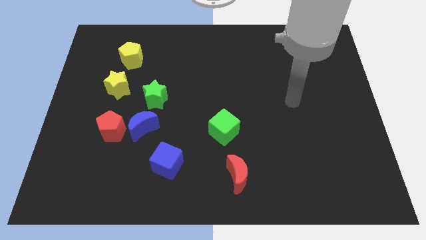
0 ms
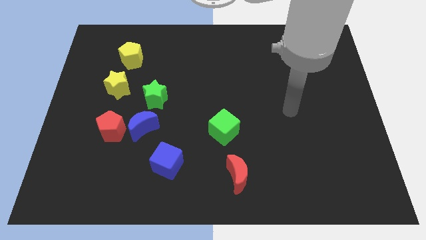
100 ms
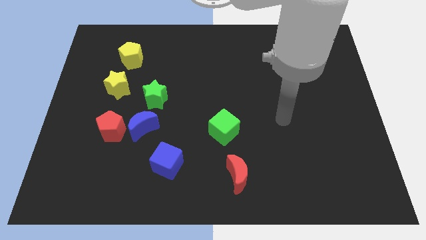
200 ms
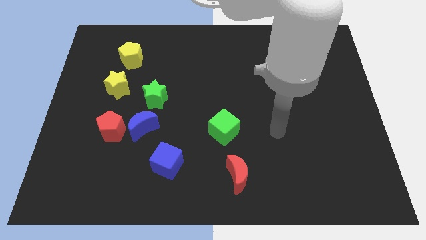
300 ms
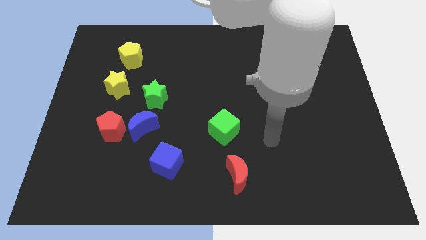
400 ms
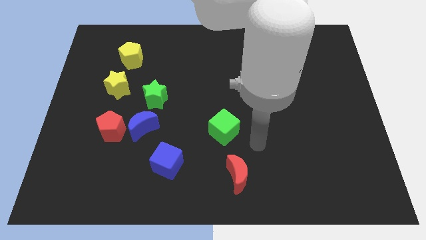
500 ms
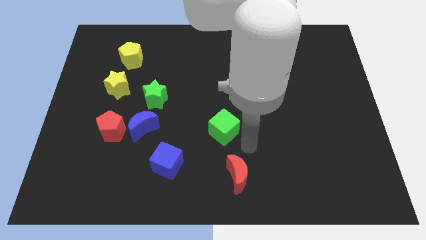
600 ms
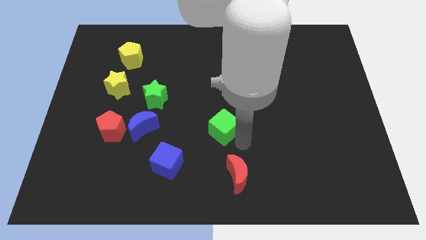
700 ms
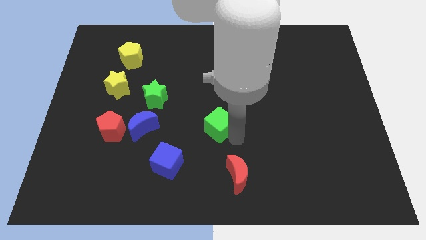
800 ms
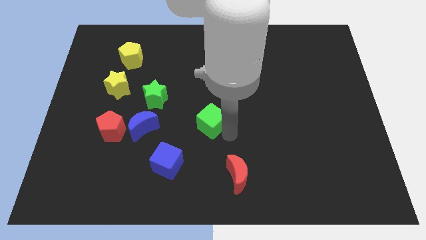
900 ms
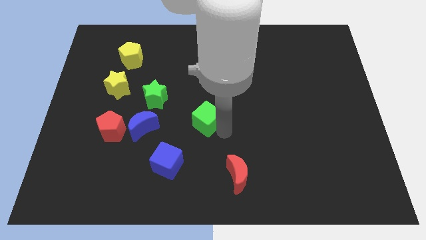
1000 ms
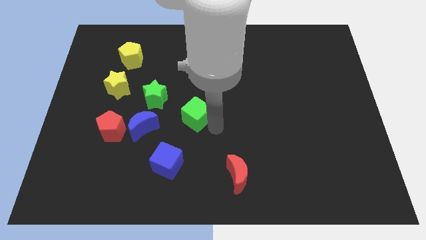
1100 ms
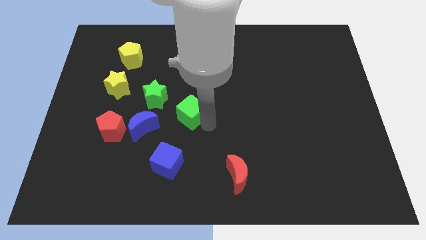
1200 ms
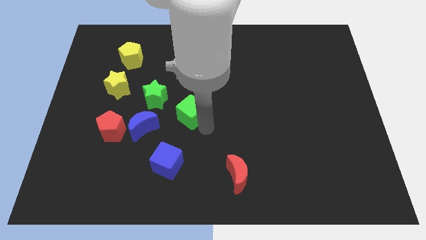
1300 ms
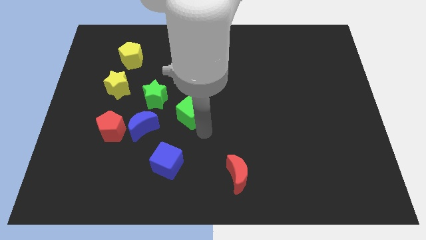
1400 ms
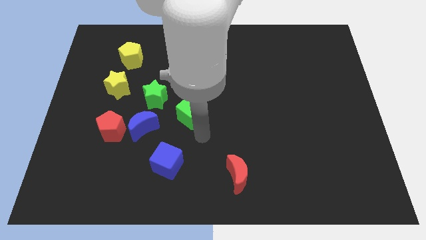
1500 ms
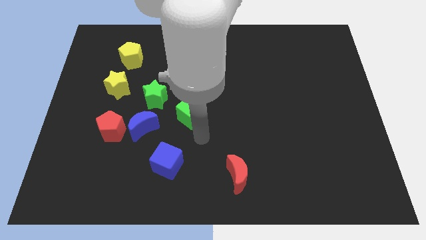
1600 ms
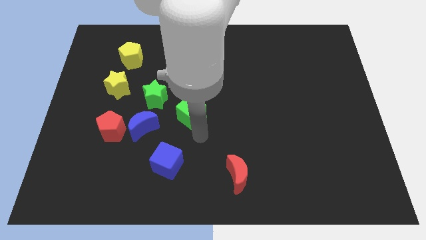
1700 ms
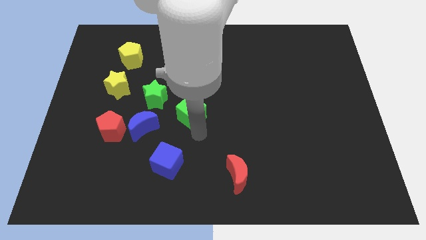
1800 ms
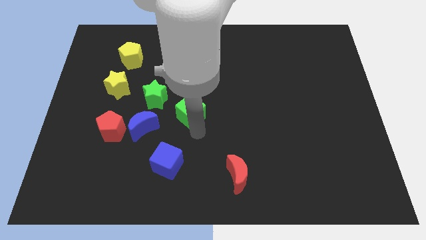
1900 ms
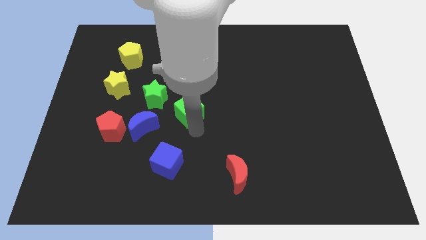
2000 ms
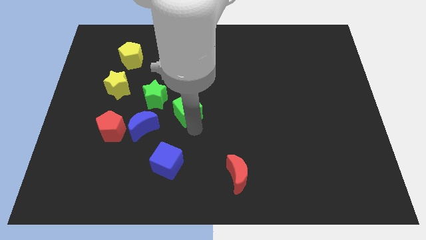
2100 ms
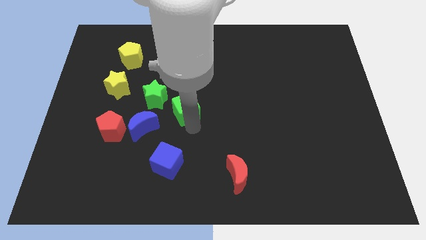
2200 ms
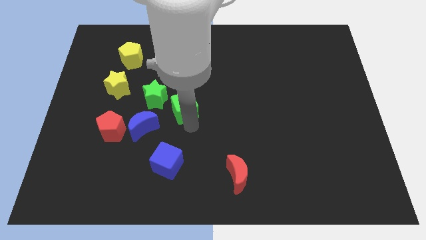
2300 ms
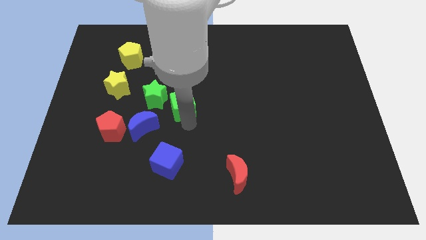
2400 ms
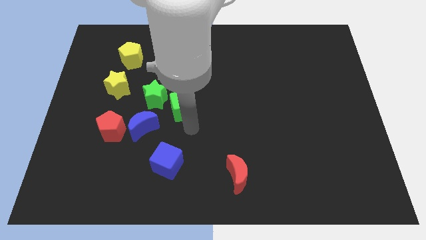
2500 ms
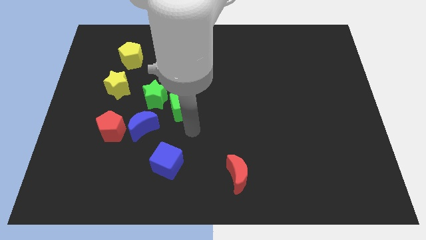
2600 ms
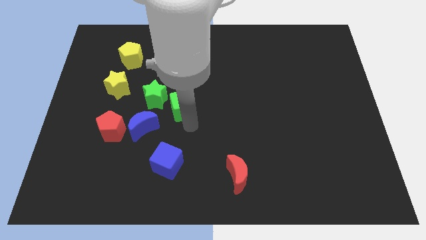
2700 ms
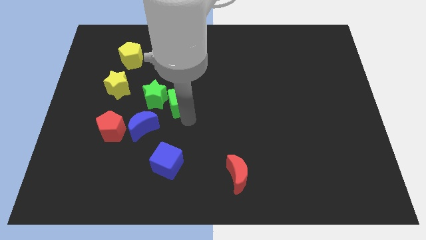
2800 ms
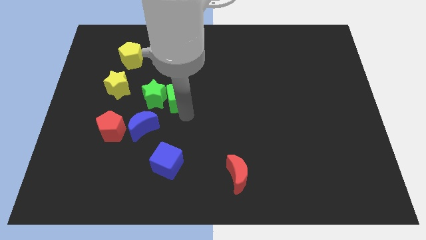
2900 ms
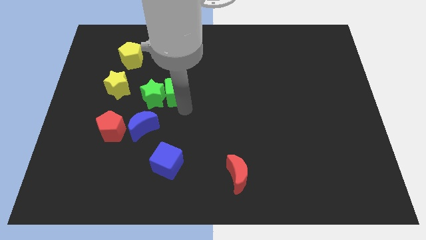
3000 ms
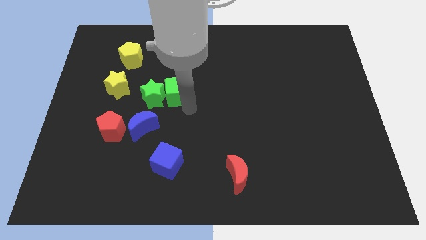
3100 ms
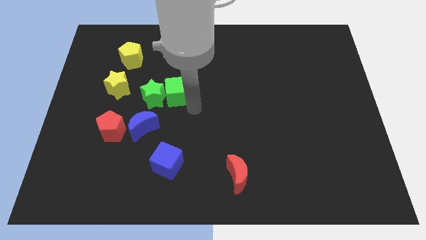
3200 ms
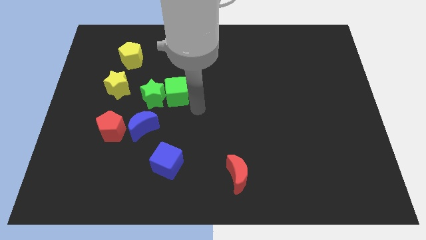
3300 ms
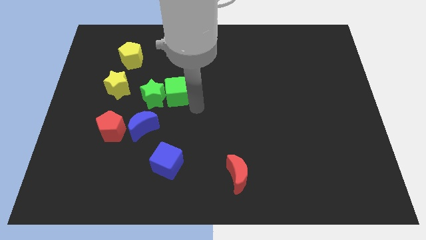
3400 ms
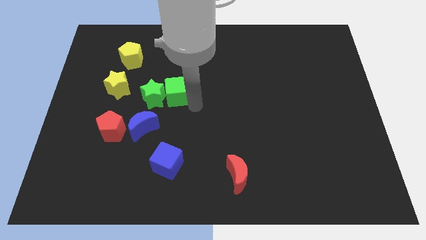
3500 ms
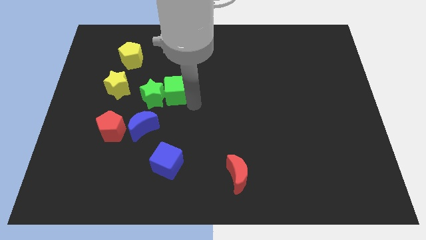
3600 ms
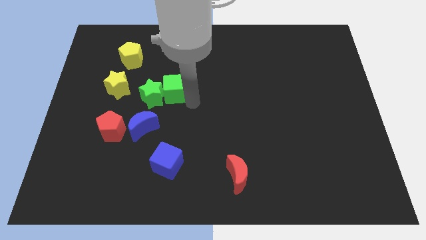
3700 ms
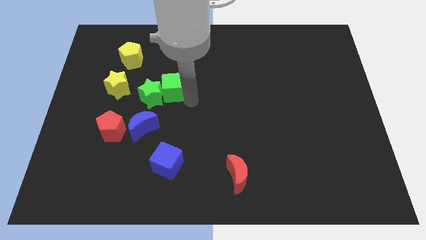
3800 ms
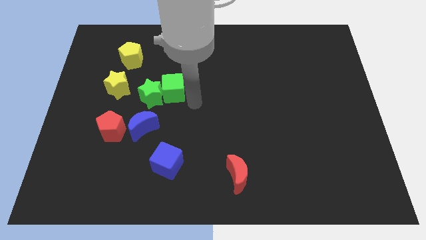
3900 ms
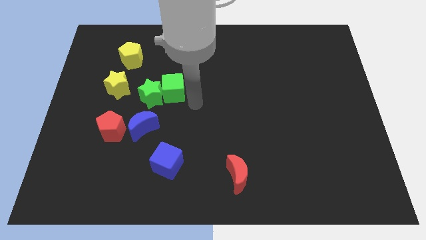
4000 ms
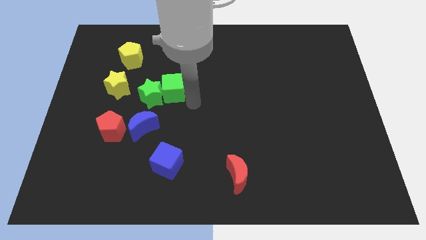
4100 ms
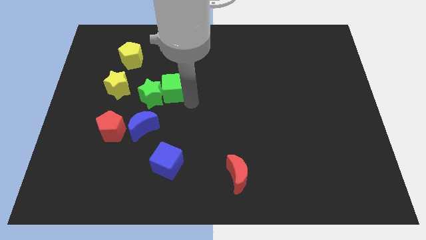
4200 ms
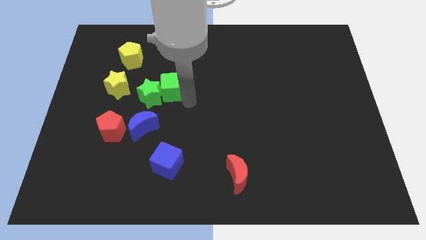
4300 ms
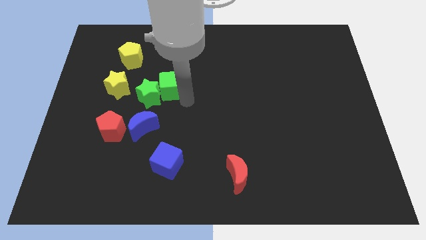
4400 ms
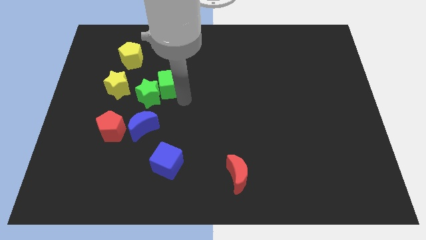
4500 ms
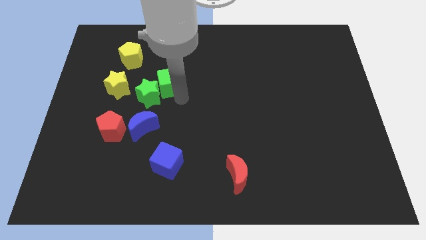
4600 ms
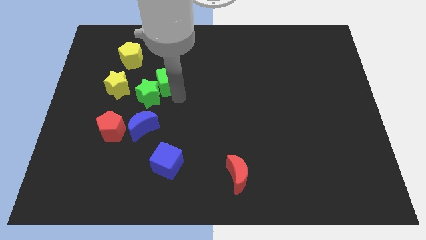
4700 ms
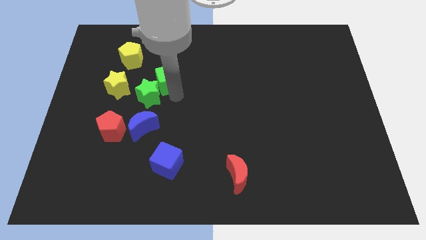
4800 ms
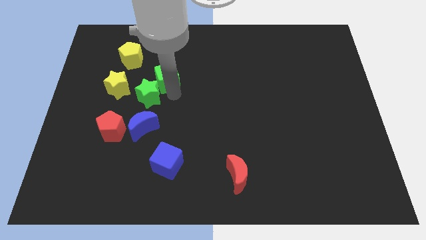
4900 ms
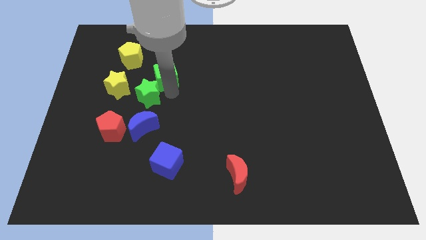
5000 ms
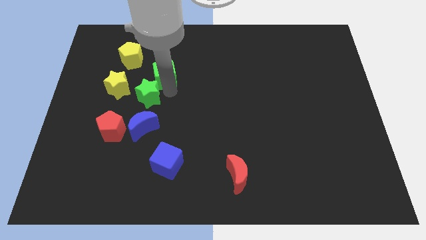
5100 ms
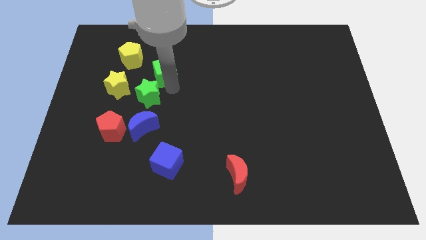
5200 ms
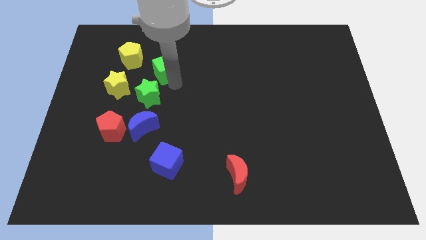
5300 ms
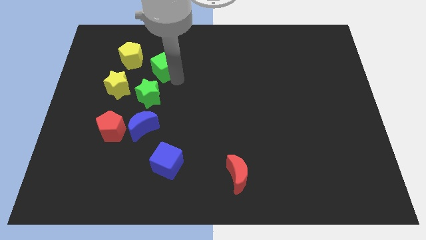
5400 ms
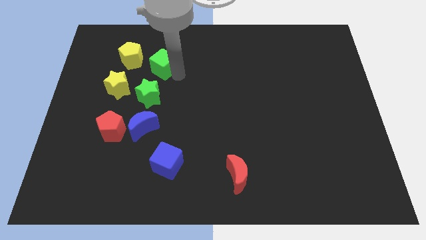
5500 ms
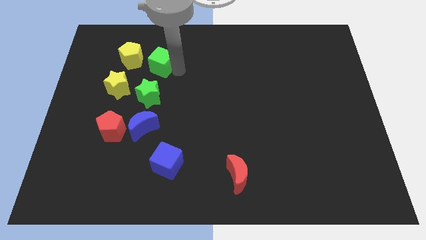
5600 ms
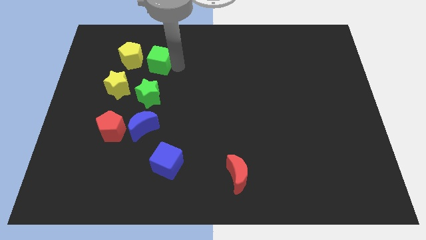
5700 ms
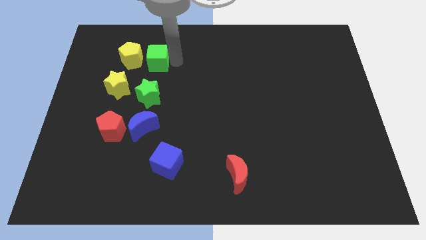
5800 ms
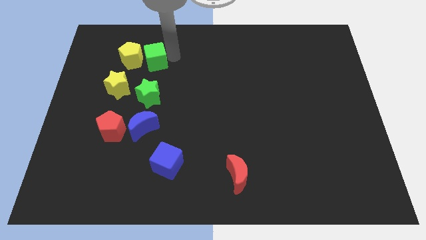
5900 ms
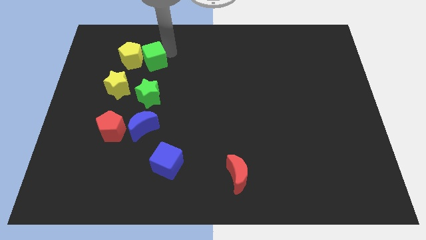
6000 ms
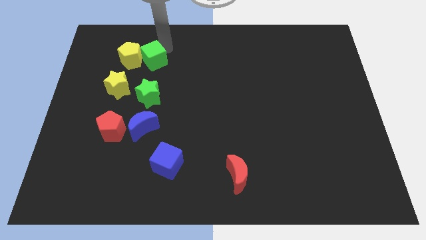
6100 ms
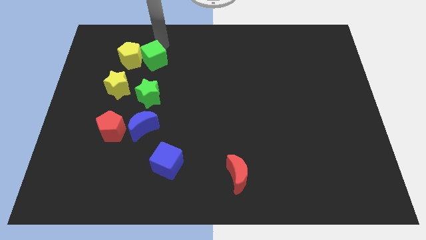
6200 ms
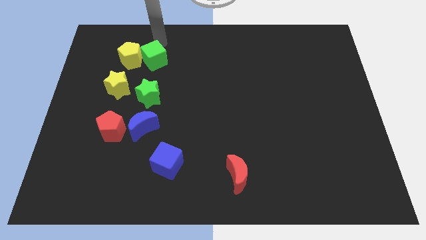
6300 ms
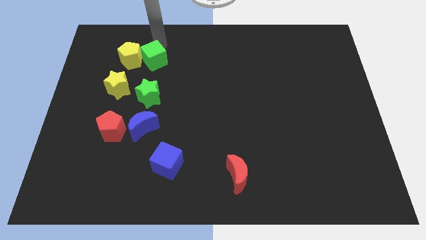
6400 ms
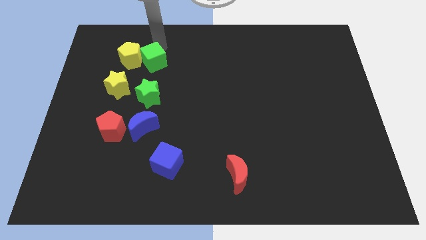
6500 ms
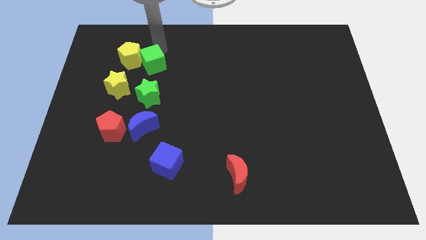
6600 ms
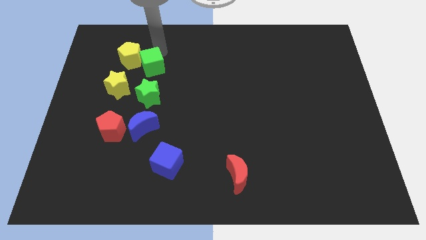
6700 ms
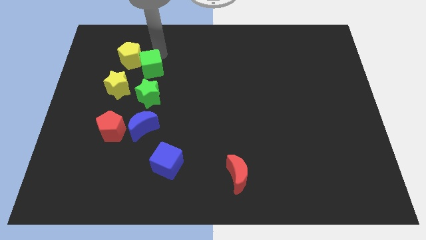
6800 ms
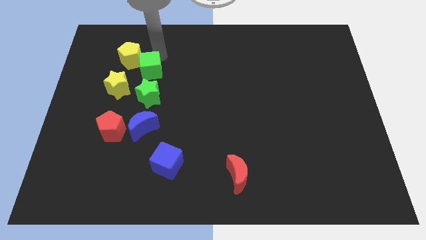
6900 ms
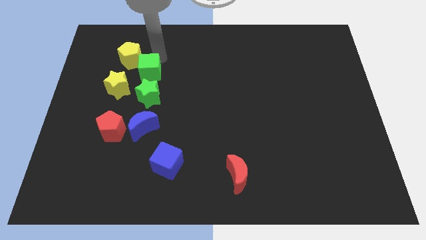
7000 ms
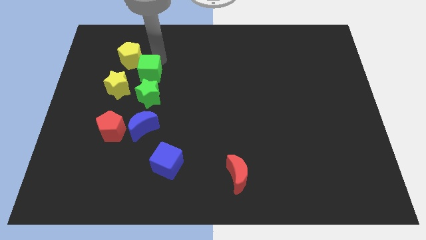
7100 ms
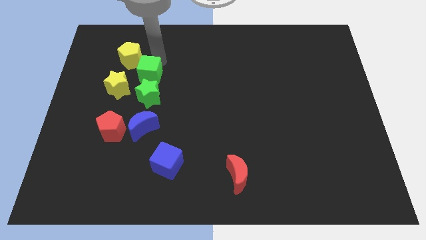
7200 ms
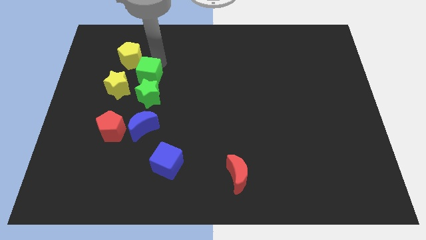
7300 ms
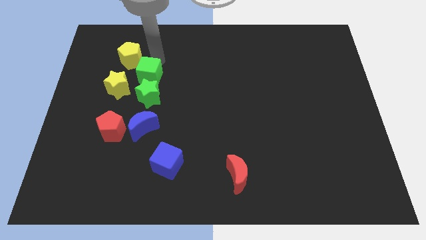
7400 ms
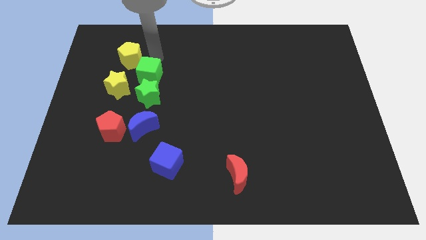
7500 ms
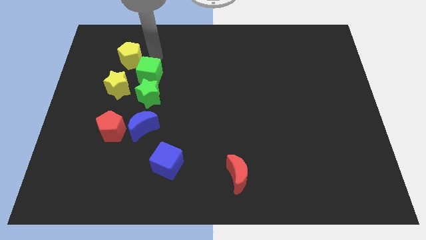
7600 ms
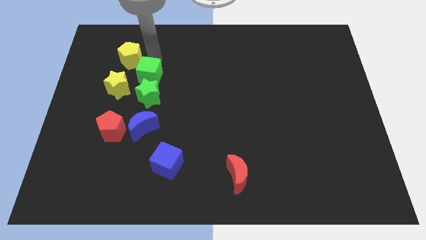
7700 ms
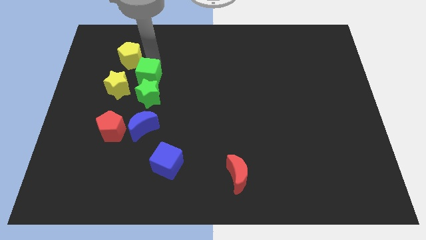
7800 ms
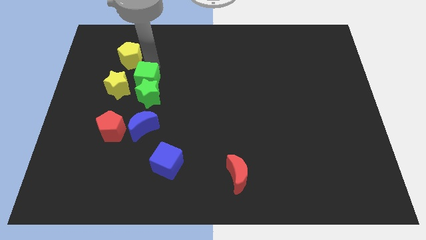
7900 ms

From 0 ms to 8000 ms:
push the green cube to the bottom side of the yellow pentagon
